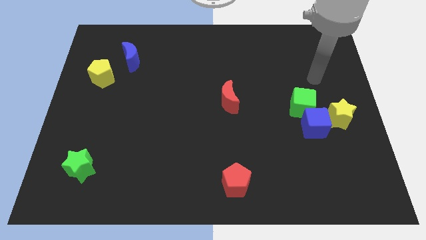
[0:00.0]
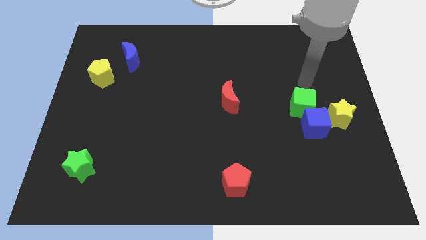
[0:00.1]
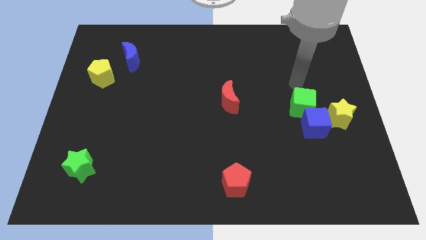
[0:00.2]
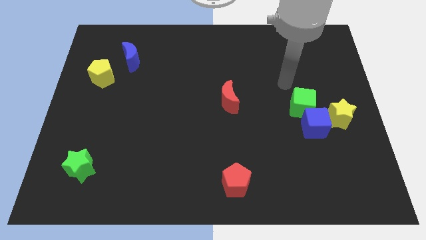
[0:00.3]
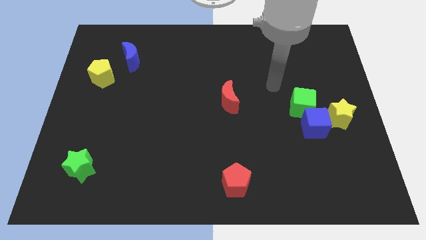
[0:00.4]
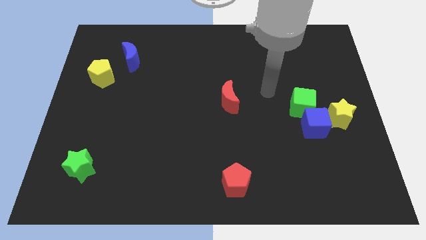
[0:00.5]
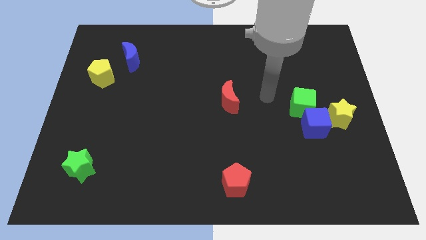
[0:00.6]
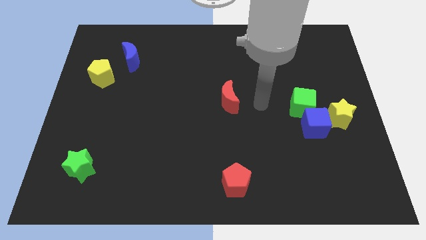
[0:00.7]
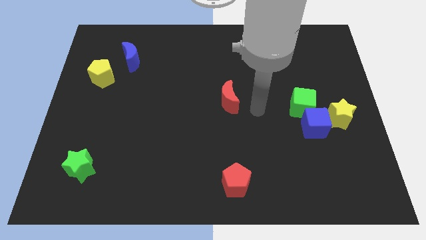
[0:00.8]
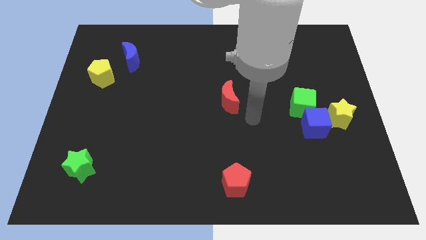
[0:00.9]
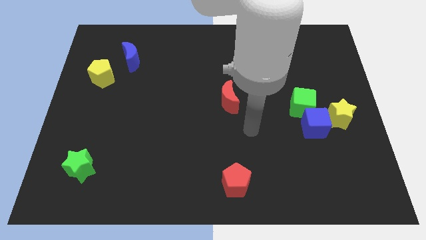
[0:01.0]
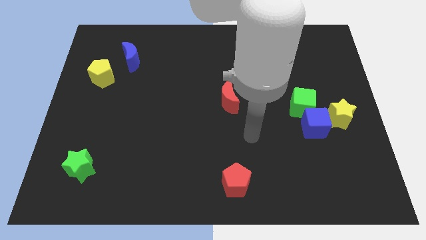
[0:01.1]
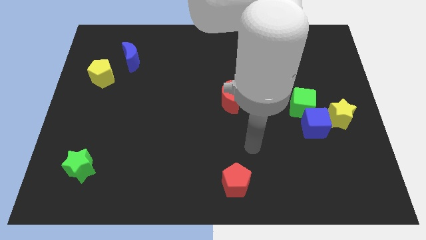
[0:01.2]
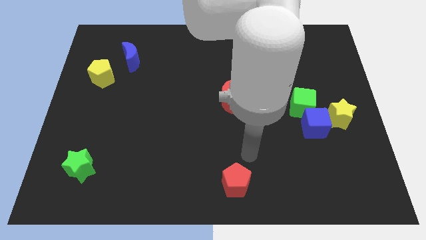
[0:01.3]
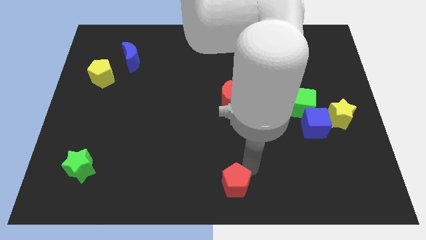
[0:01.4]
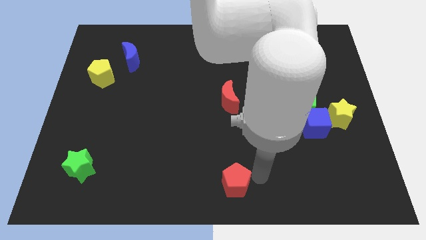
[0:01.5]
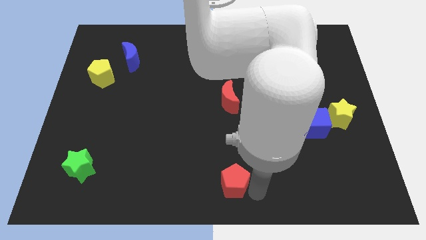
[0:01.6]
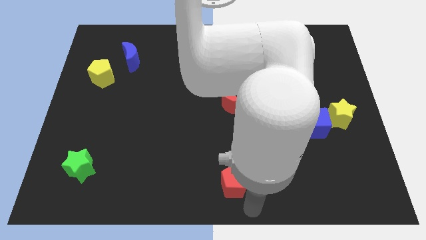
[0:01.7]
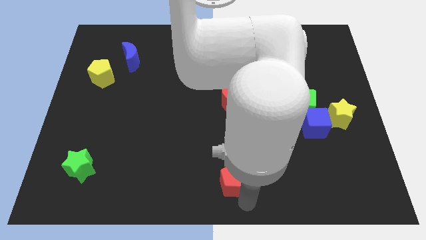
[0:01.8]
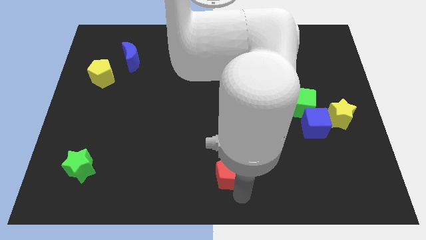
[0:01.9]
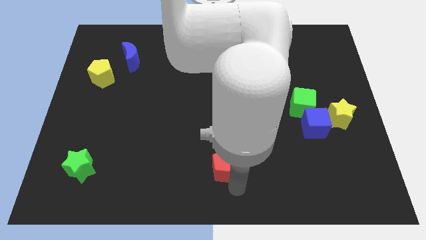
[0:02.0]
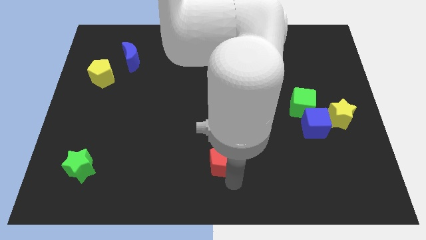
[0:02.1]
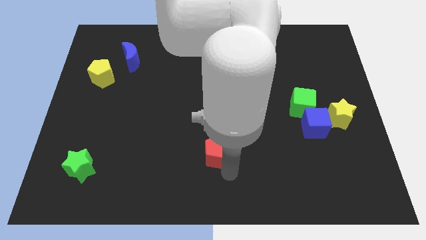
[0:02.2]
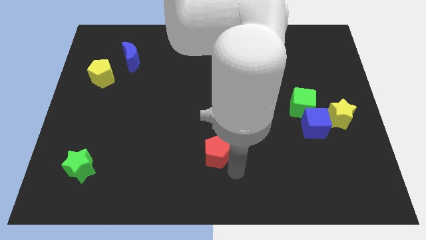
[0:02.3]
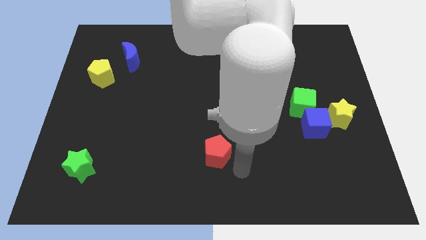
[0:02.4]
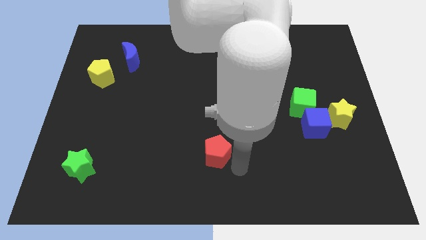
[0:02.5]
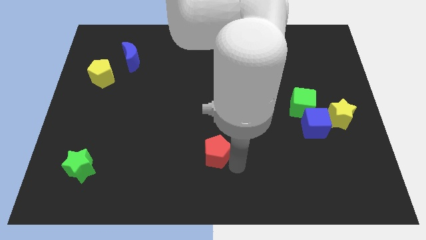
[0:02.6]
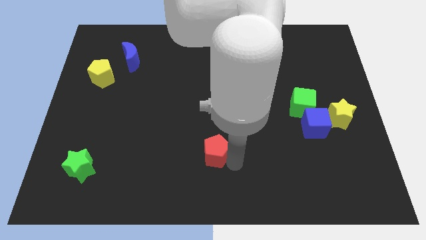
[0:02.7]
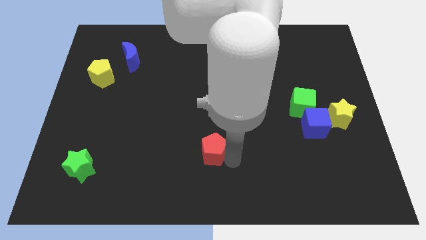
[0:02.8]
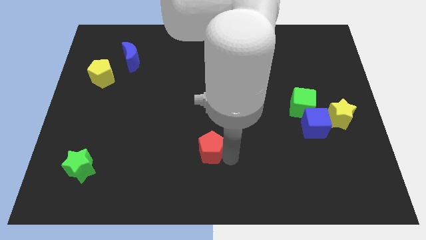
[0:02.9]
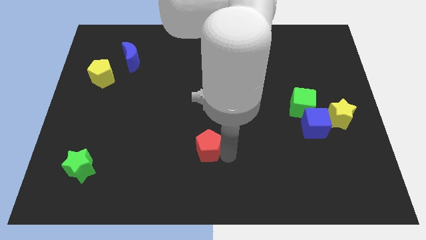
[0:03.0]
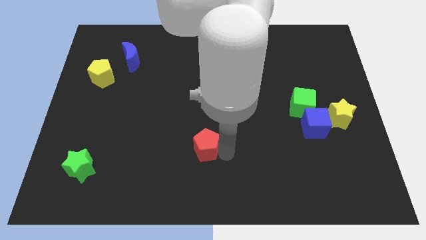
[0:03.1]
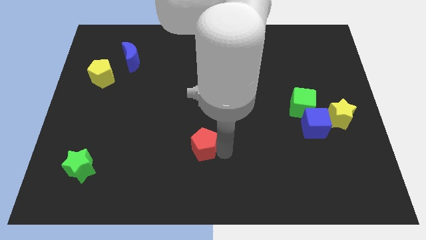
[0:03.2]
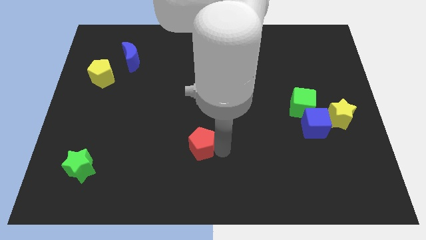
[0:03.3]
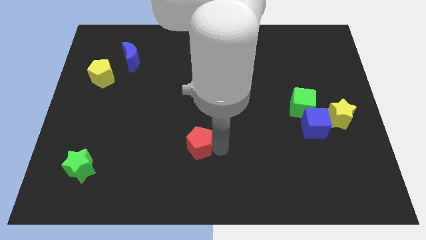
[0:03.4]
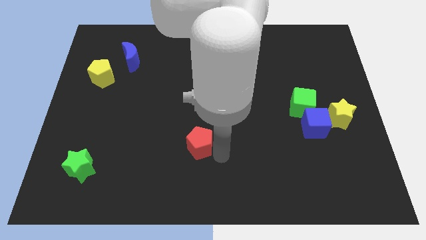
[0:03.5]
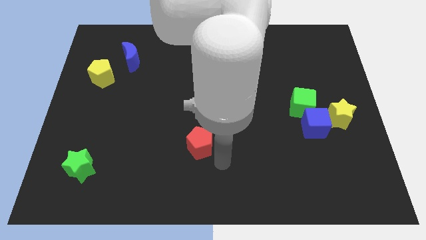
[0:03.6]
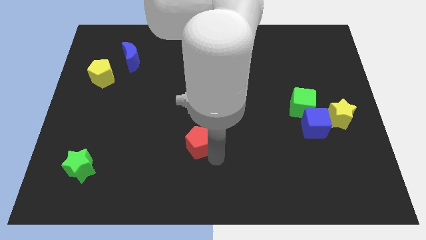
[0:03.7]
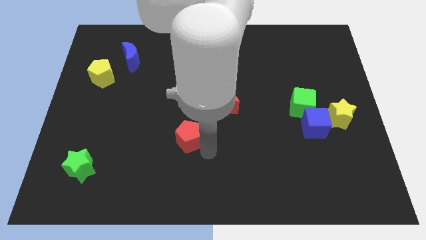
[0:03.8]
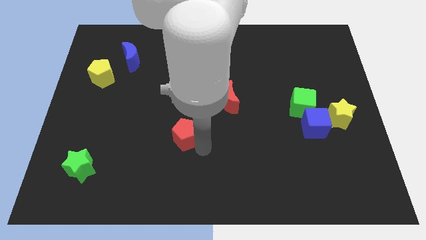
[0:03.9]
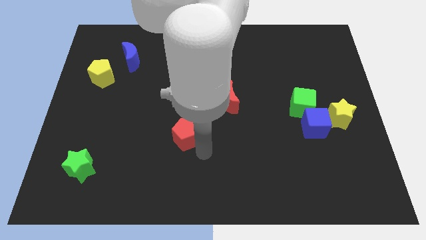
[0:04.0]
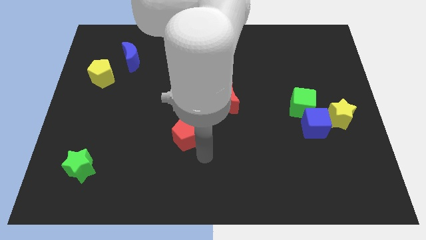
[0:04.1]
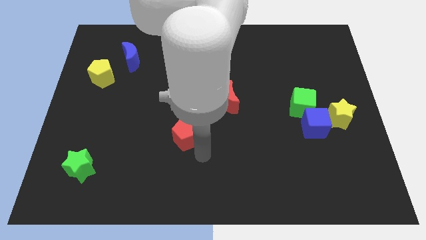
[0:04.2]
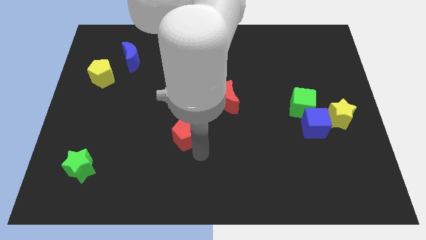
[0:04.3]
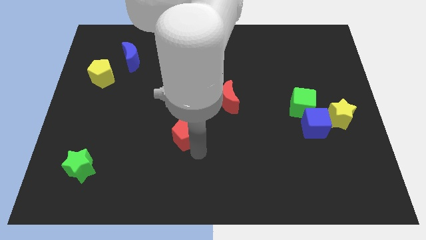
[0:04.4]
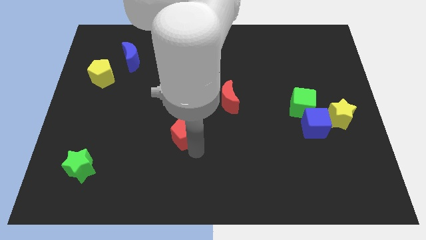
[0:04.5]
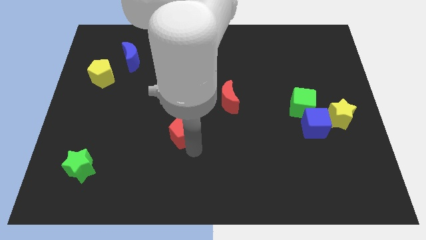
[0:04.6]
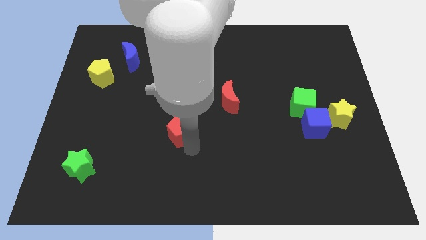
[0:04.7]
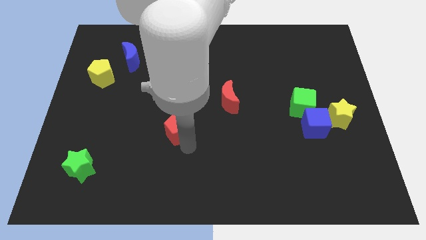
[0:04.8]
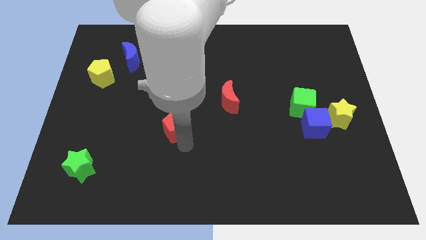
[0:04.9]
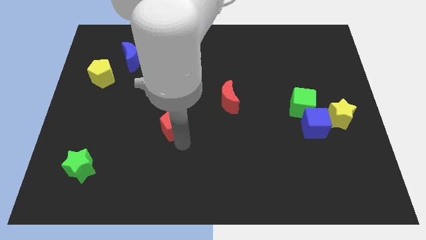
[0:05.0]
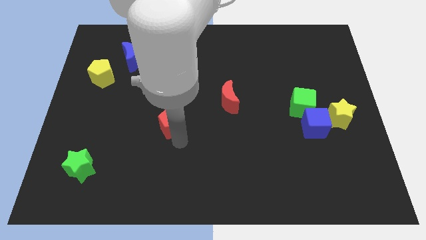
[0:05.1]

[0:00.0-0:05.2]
move the red pentagon diagonally upwards and left

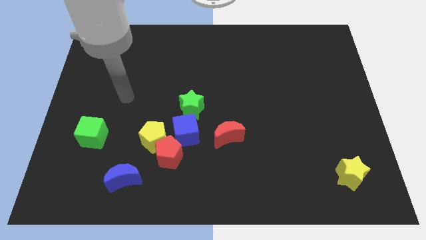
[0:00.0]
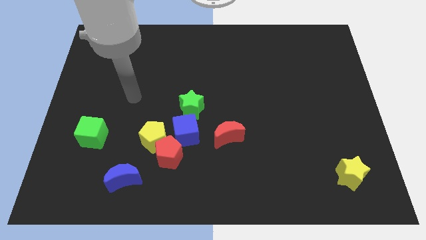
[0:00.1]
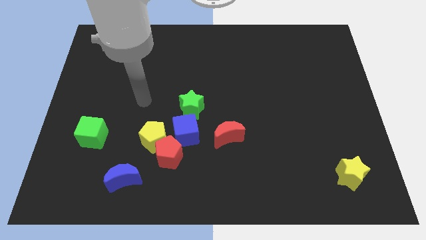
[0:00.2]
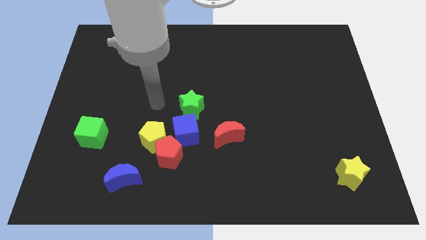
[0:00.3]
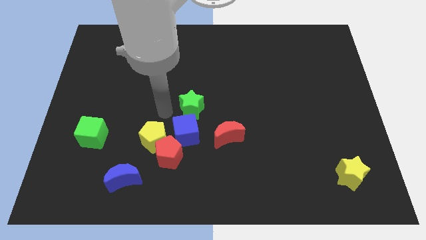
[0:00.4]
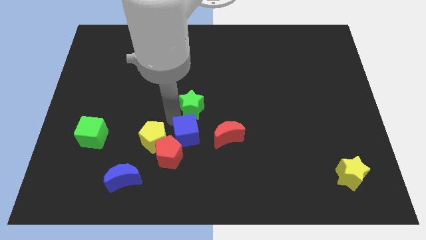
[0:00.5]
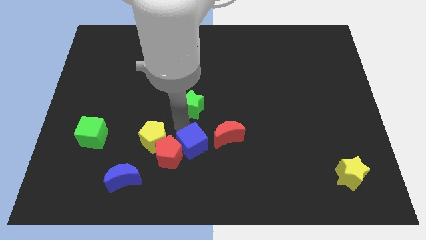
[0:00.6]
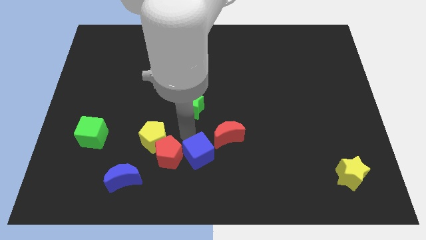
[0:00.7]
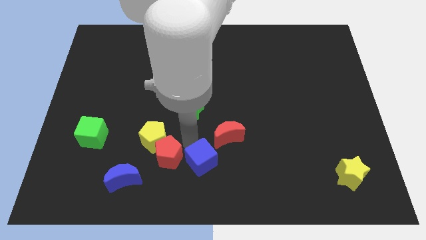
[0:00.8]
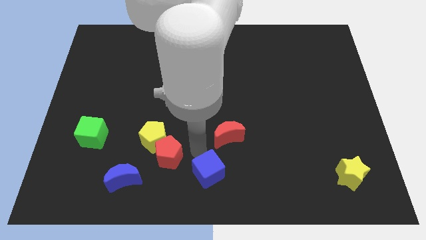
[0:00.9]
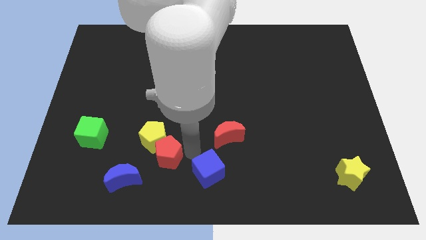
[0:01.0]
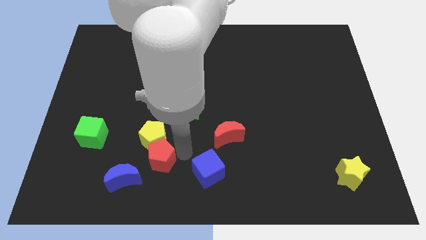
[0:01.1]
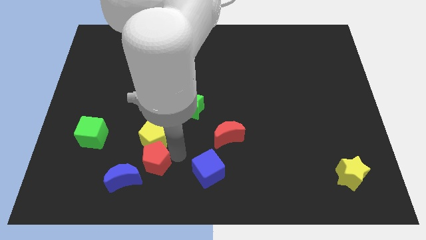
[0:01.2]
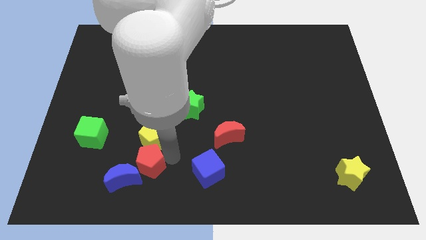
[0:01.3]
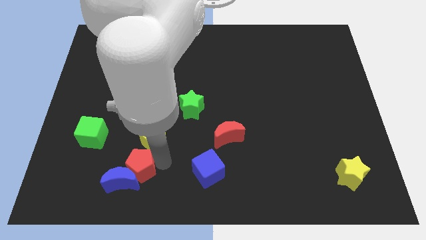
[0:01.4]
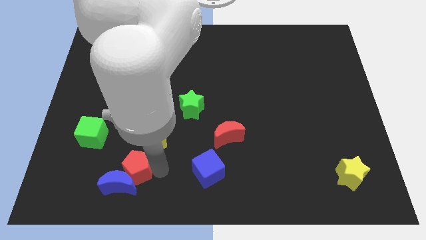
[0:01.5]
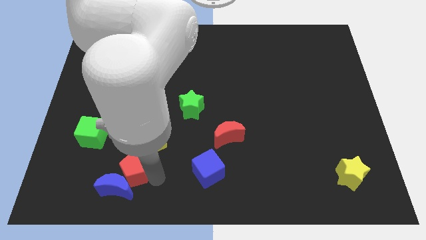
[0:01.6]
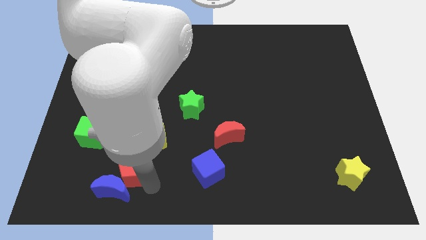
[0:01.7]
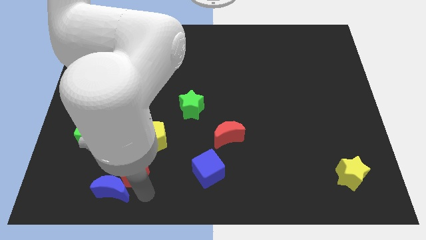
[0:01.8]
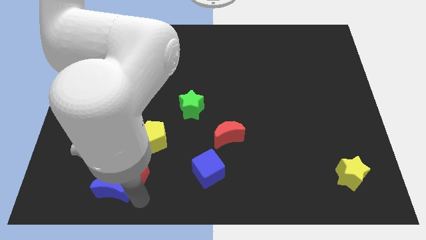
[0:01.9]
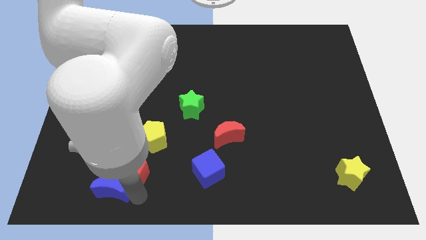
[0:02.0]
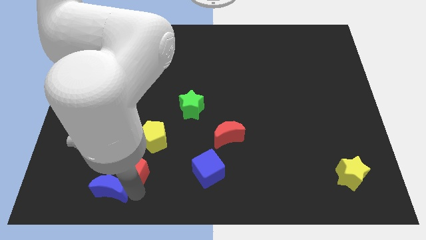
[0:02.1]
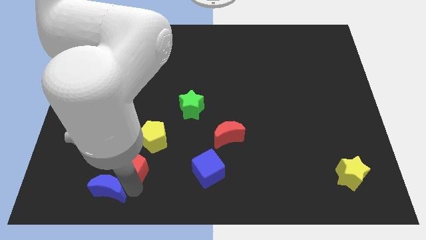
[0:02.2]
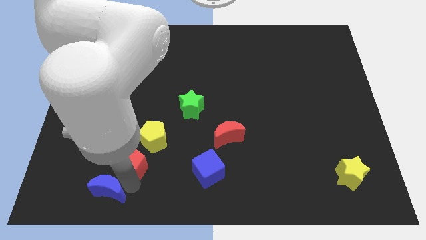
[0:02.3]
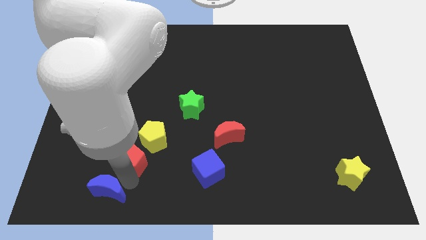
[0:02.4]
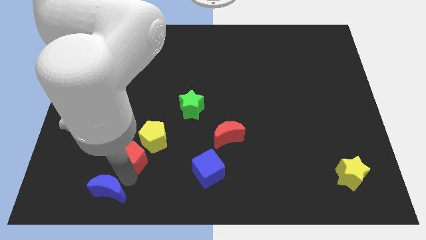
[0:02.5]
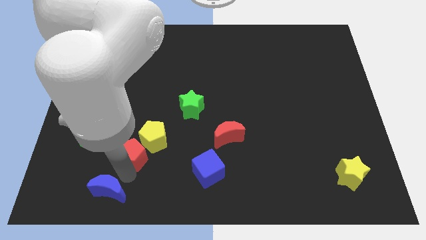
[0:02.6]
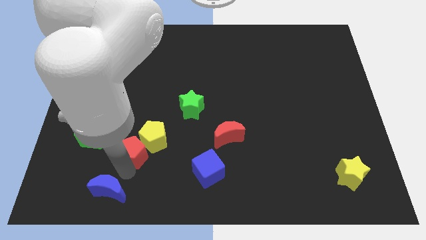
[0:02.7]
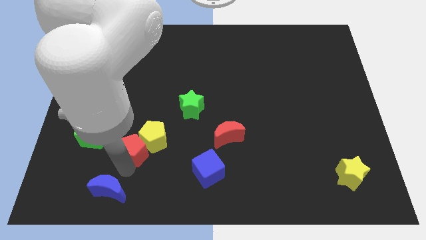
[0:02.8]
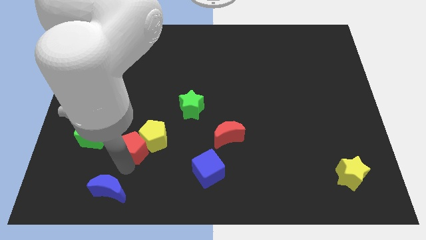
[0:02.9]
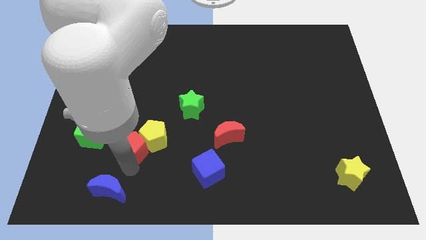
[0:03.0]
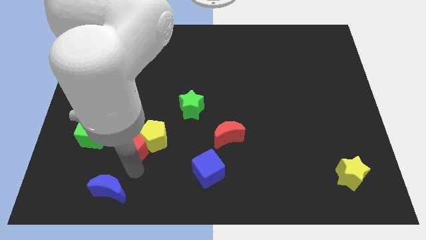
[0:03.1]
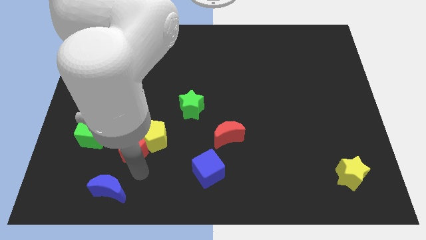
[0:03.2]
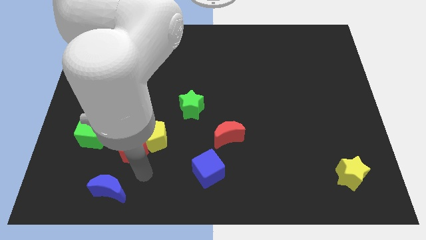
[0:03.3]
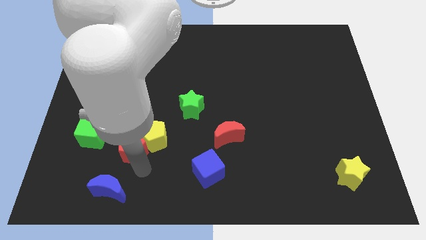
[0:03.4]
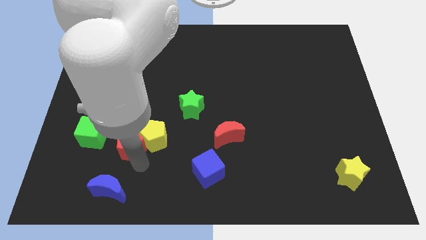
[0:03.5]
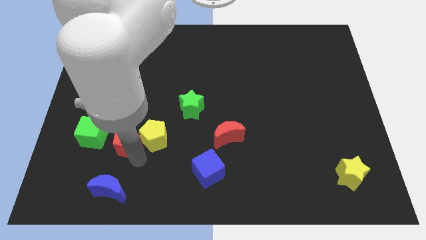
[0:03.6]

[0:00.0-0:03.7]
slide the red pentagon upwards and to the left a little bit
